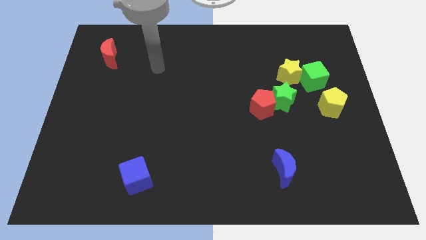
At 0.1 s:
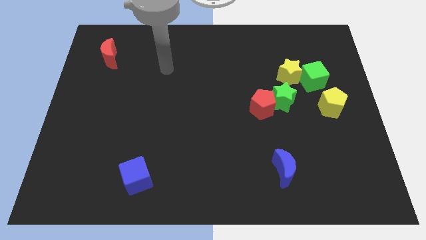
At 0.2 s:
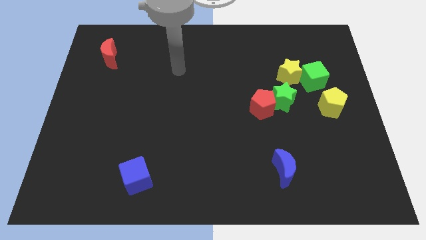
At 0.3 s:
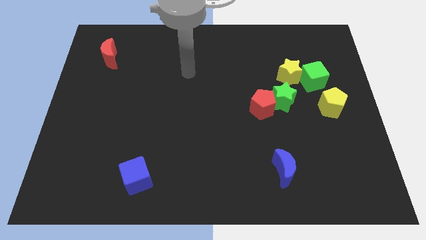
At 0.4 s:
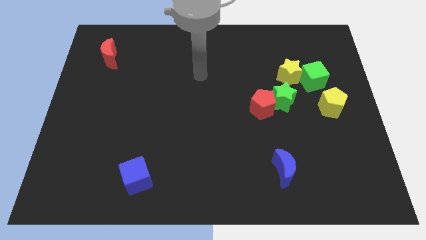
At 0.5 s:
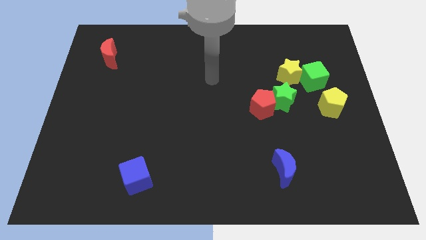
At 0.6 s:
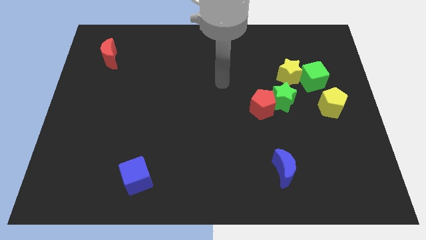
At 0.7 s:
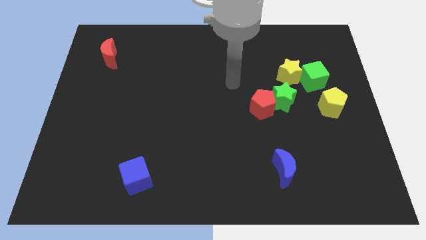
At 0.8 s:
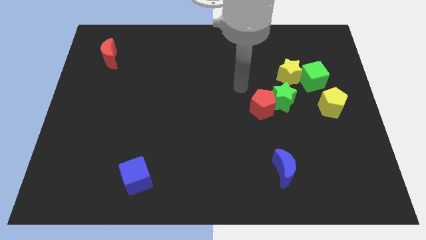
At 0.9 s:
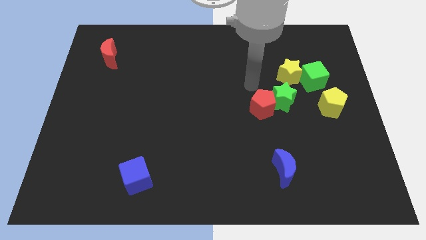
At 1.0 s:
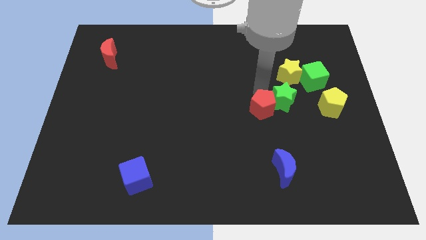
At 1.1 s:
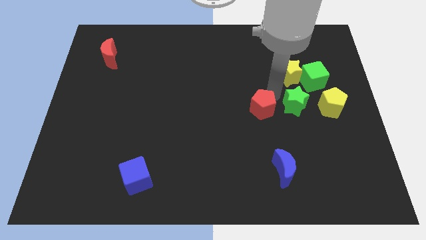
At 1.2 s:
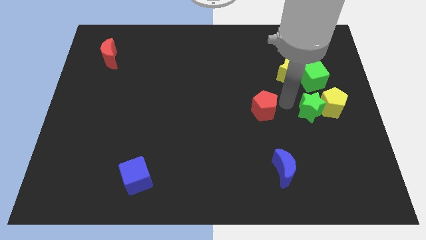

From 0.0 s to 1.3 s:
separate the red pentagon from the green star

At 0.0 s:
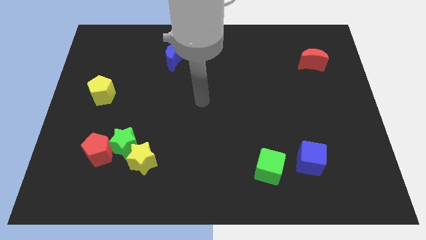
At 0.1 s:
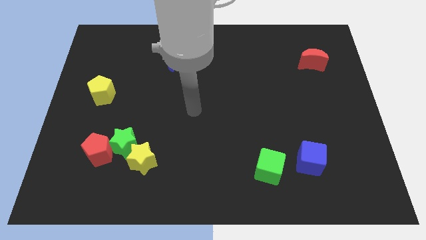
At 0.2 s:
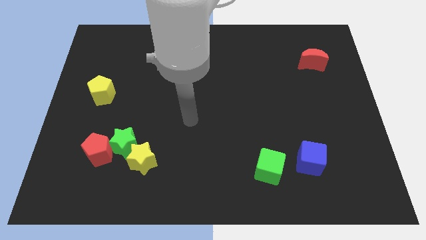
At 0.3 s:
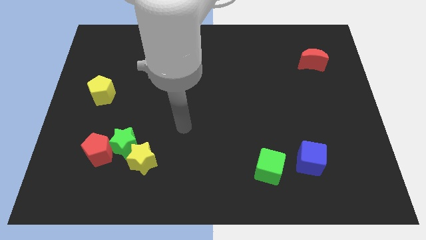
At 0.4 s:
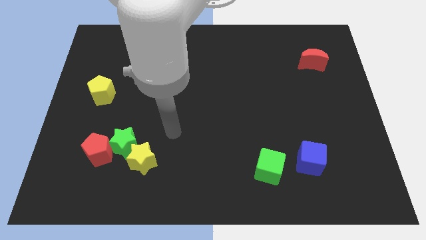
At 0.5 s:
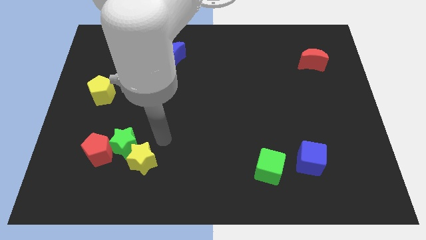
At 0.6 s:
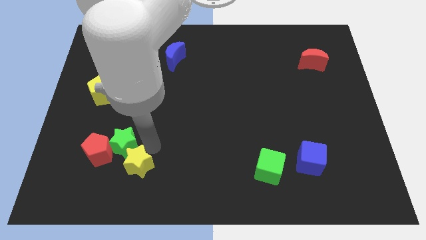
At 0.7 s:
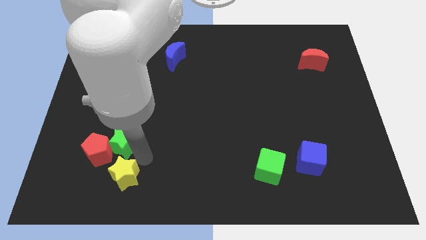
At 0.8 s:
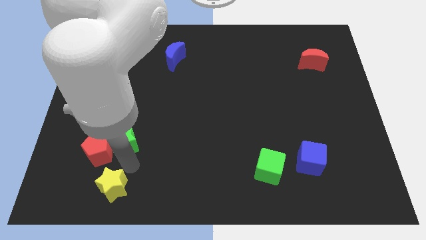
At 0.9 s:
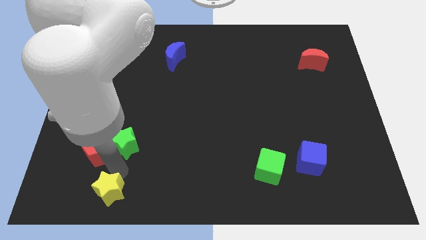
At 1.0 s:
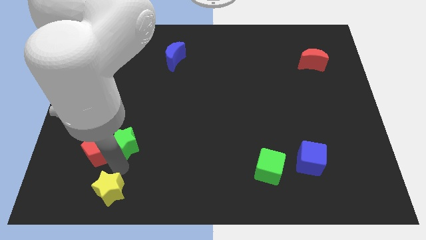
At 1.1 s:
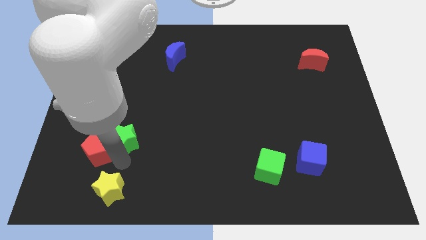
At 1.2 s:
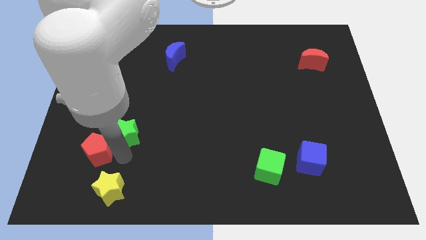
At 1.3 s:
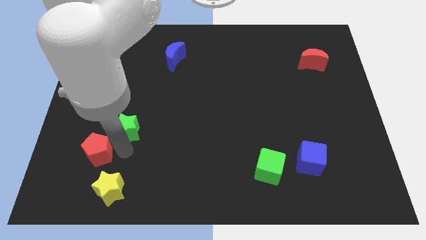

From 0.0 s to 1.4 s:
pull the green star apart from the yellow star and red pentagon

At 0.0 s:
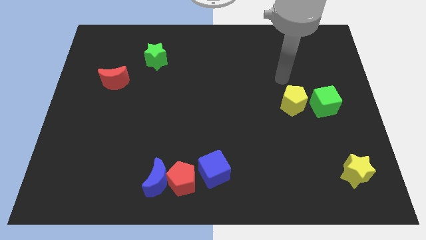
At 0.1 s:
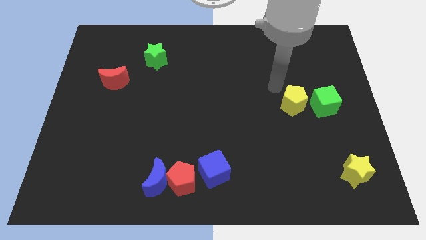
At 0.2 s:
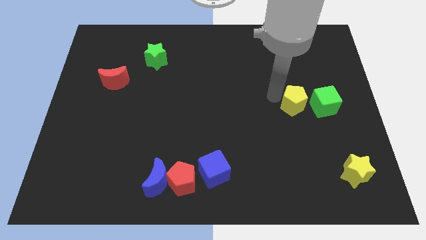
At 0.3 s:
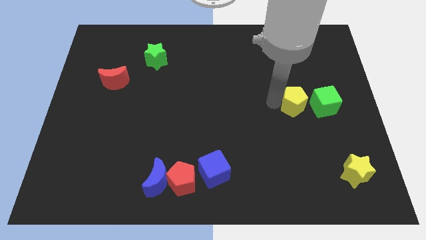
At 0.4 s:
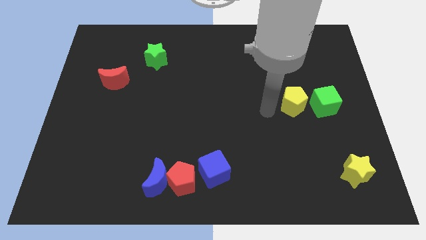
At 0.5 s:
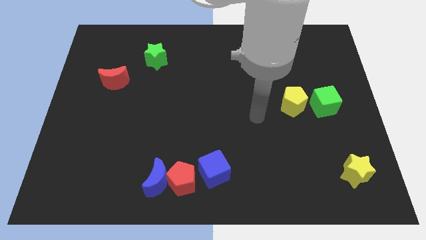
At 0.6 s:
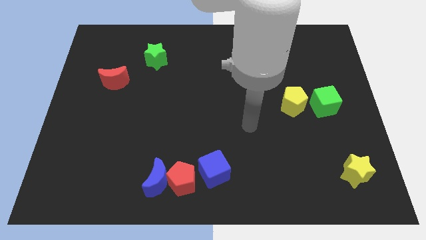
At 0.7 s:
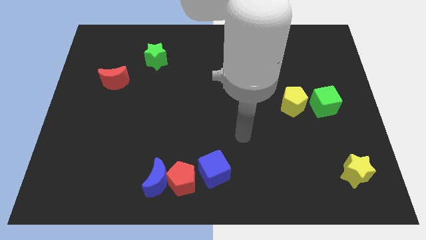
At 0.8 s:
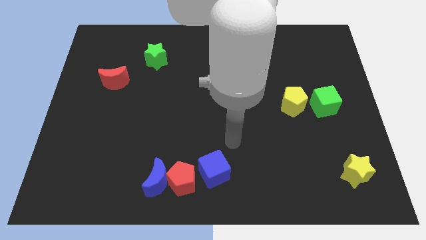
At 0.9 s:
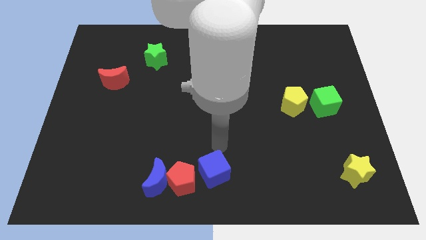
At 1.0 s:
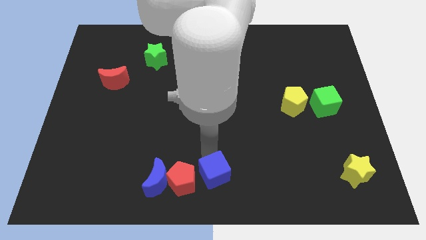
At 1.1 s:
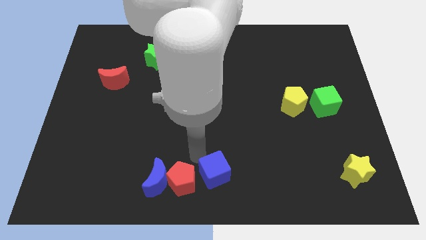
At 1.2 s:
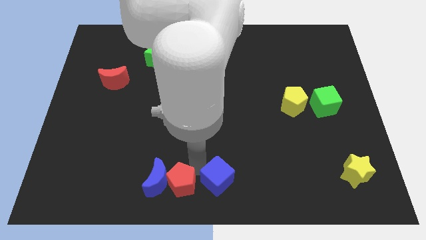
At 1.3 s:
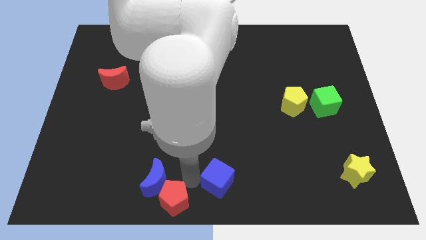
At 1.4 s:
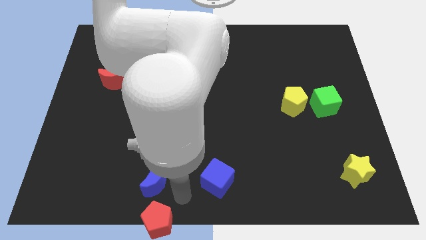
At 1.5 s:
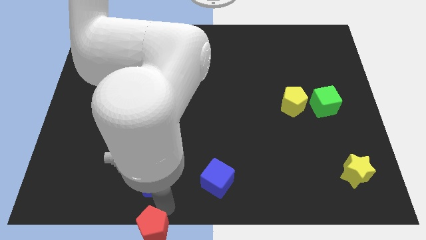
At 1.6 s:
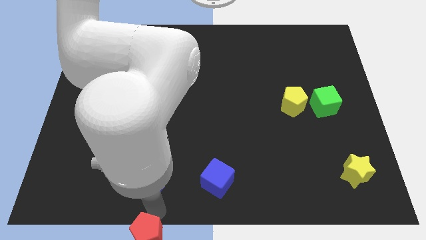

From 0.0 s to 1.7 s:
pull the blue moon apart from the red pentagon

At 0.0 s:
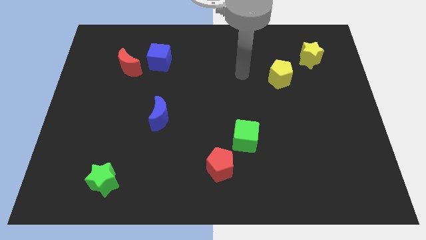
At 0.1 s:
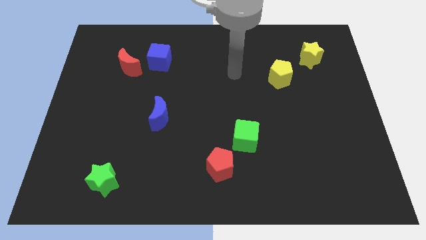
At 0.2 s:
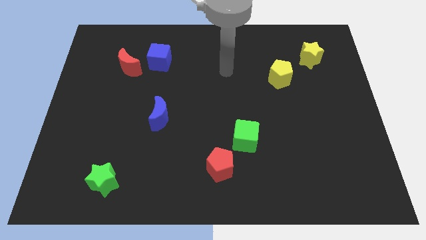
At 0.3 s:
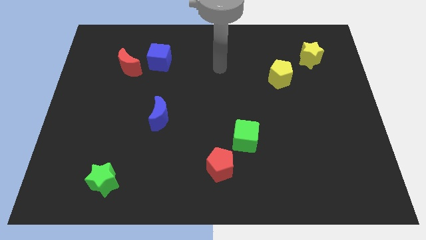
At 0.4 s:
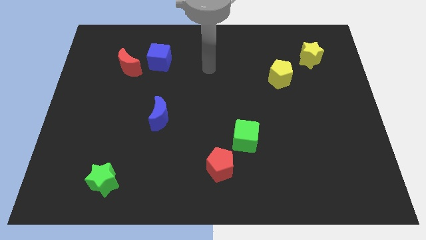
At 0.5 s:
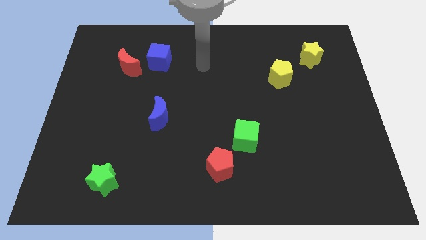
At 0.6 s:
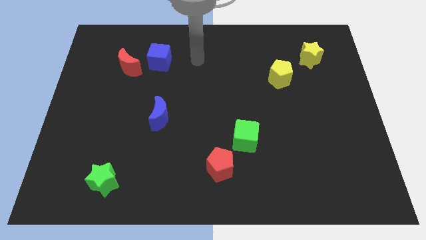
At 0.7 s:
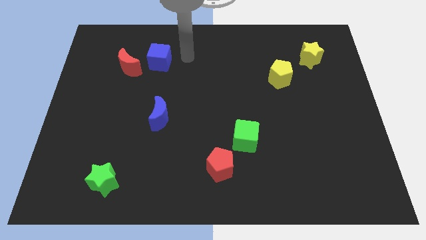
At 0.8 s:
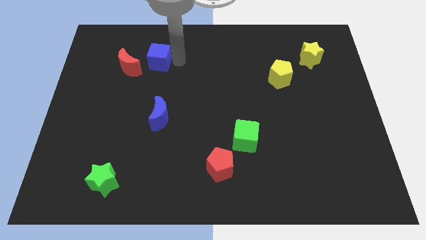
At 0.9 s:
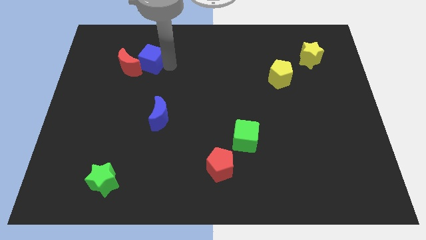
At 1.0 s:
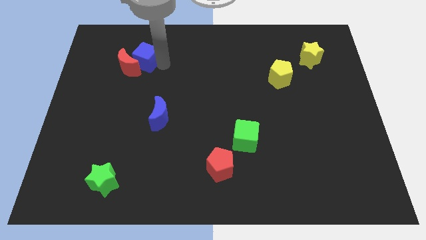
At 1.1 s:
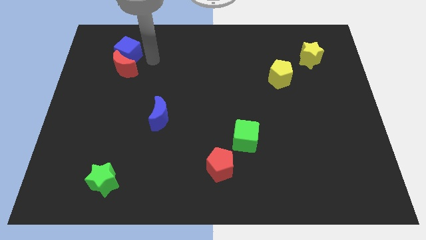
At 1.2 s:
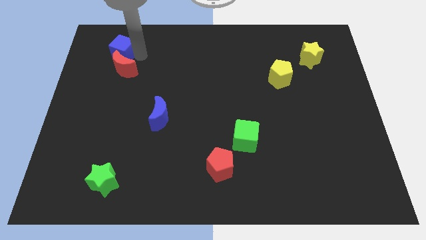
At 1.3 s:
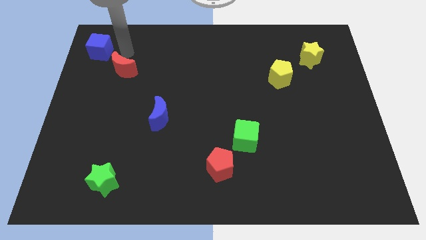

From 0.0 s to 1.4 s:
move the red moon away from the blue cube

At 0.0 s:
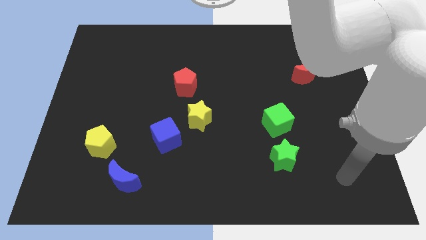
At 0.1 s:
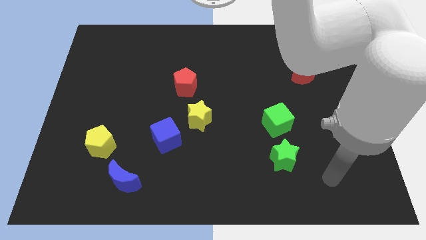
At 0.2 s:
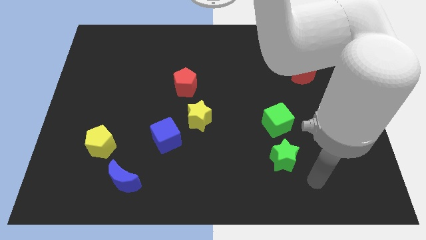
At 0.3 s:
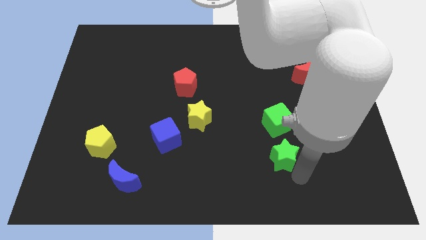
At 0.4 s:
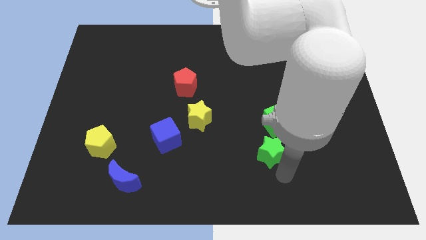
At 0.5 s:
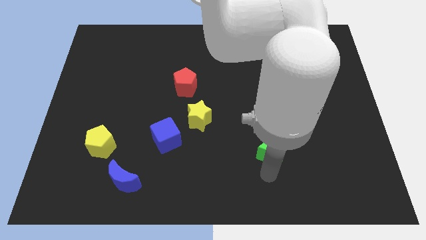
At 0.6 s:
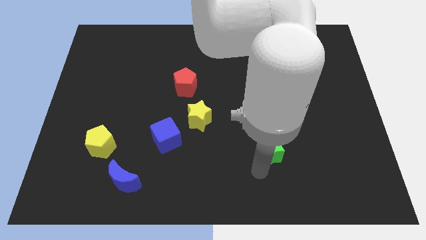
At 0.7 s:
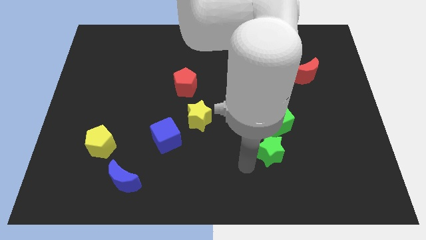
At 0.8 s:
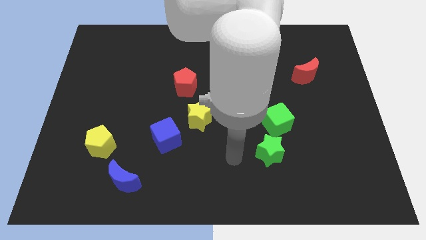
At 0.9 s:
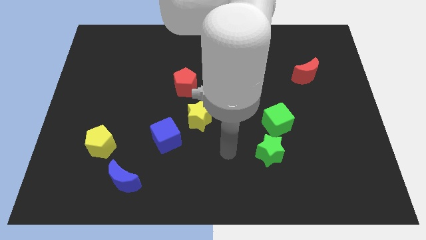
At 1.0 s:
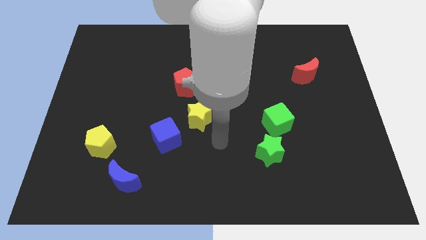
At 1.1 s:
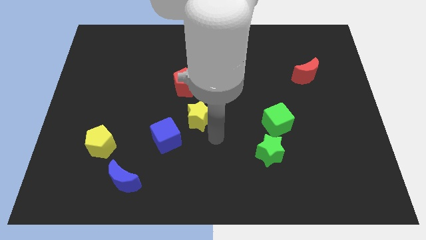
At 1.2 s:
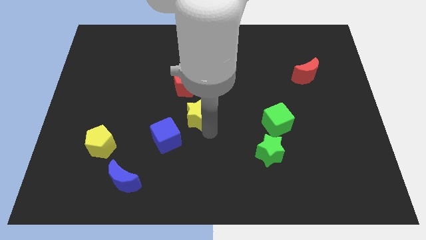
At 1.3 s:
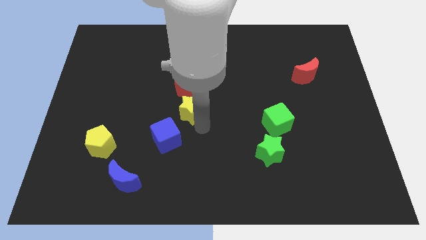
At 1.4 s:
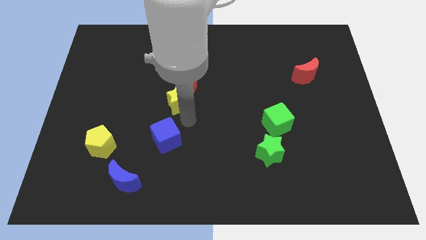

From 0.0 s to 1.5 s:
separate the blue cube from the yellow star

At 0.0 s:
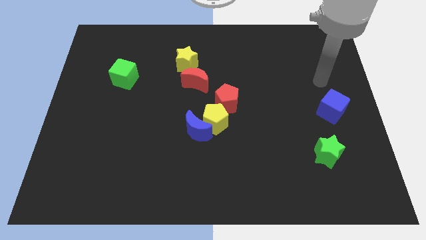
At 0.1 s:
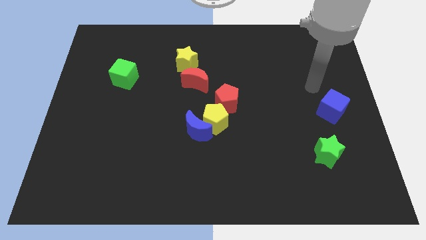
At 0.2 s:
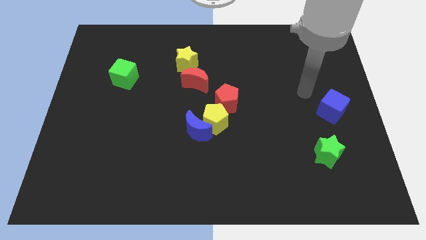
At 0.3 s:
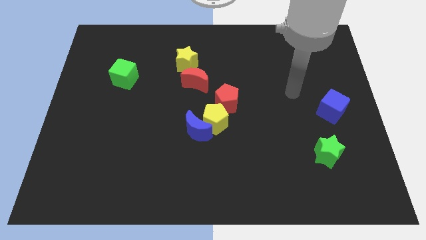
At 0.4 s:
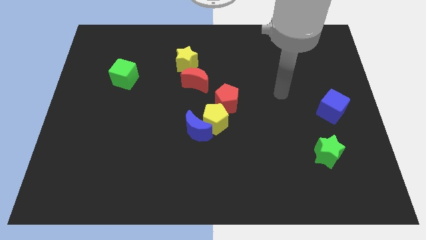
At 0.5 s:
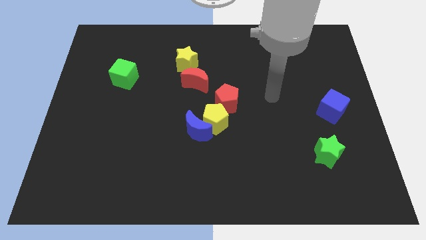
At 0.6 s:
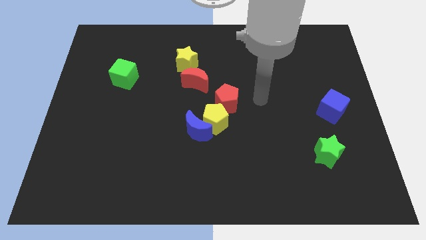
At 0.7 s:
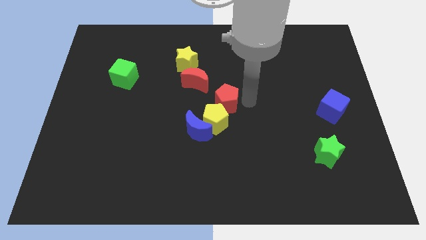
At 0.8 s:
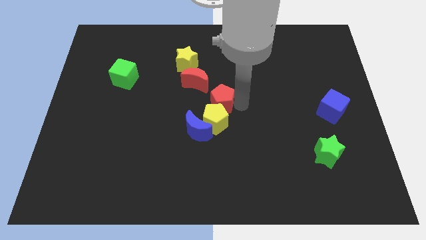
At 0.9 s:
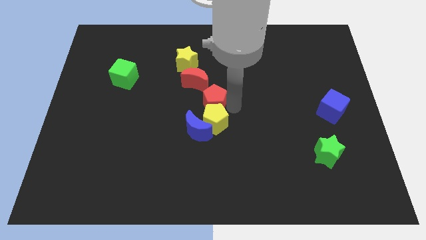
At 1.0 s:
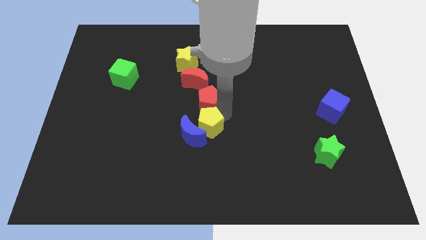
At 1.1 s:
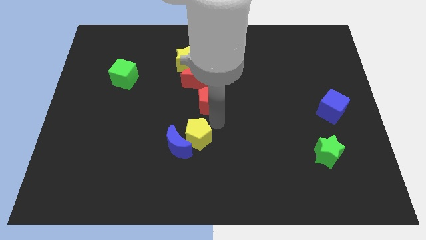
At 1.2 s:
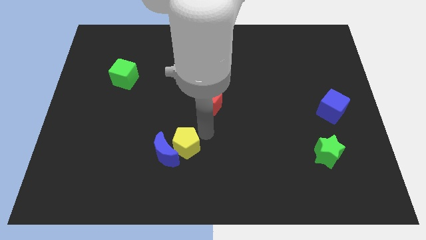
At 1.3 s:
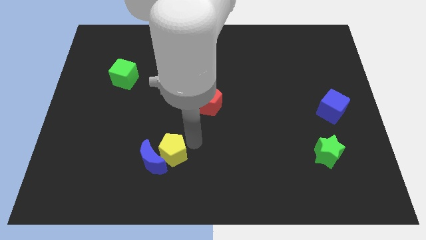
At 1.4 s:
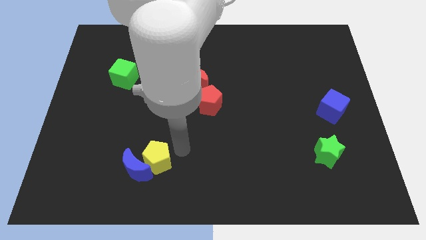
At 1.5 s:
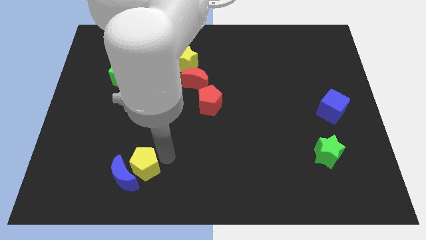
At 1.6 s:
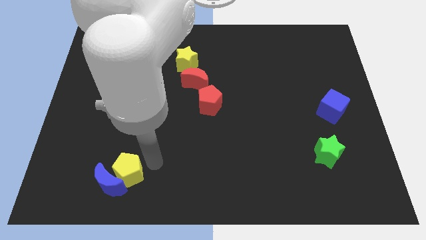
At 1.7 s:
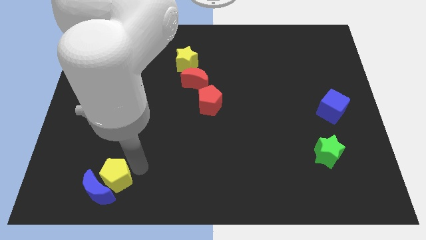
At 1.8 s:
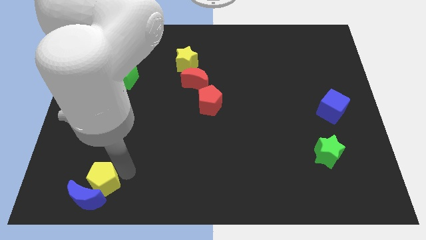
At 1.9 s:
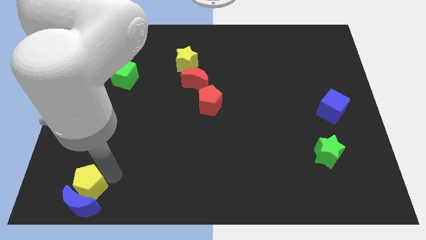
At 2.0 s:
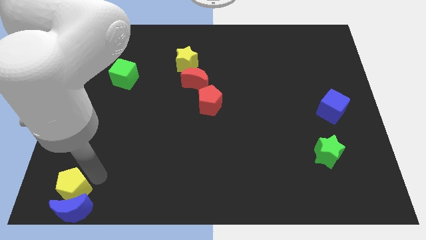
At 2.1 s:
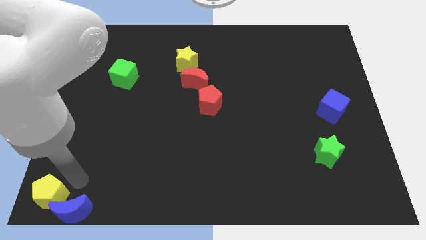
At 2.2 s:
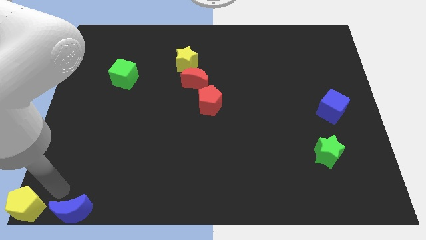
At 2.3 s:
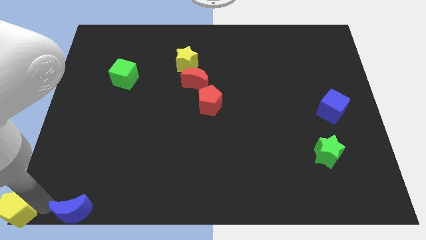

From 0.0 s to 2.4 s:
move the blue moon away from the yellow pentagon
